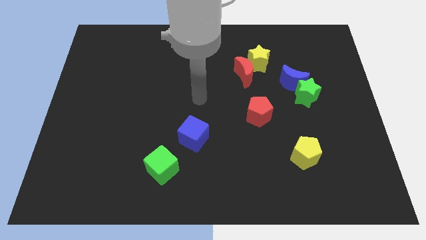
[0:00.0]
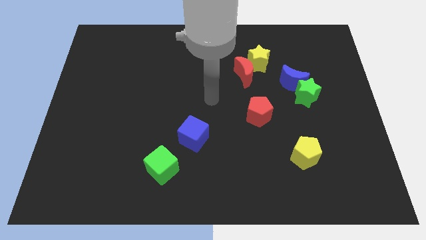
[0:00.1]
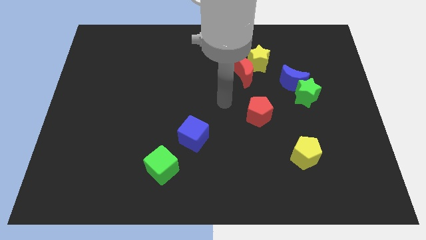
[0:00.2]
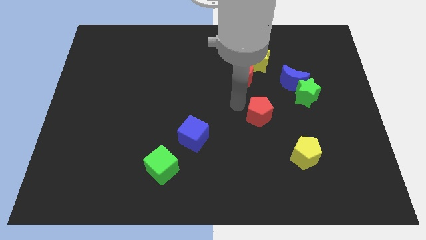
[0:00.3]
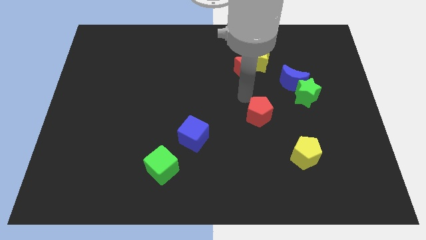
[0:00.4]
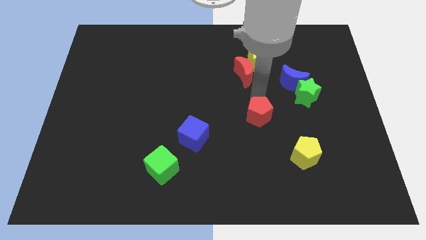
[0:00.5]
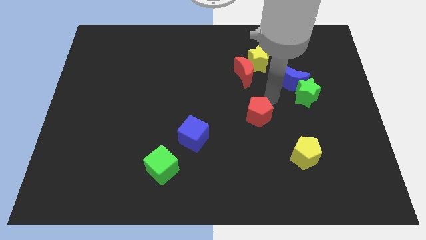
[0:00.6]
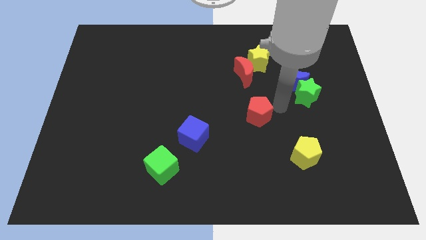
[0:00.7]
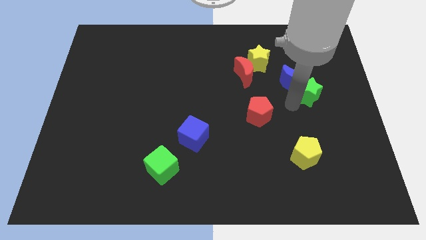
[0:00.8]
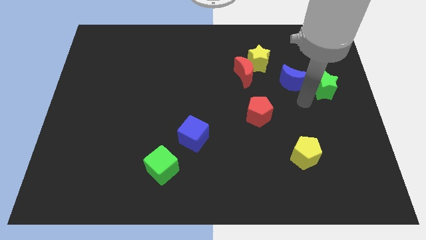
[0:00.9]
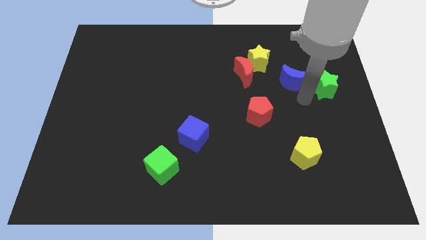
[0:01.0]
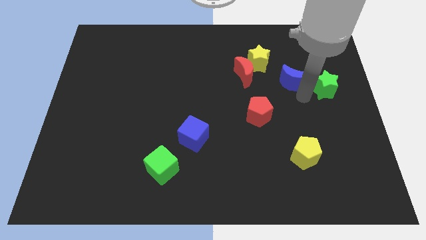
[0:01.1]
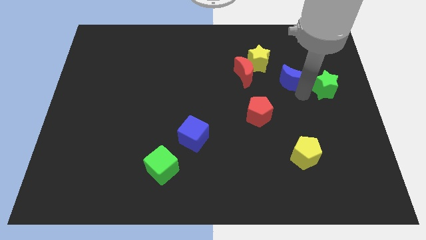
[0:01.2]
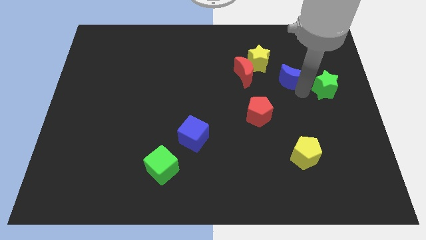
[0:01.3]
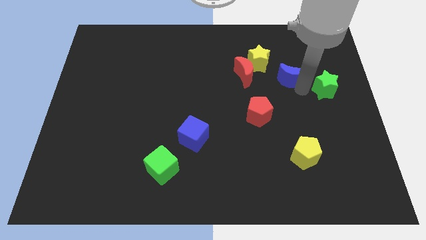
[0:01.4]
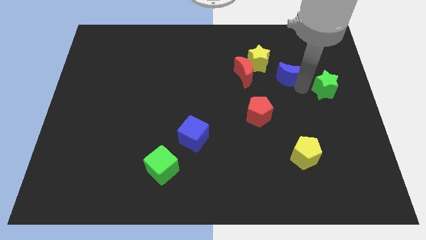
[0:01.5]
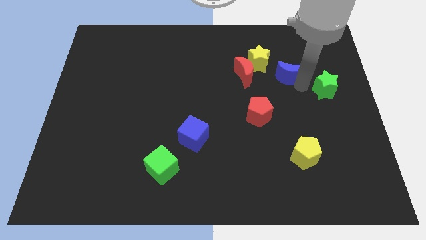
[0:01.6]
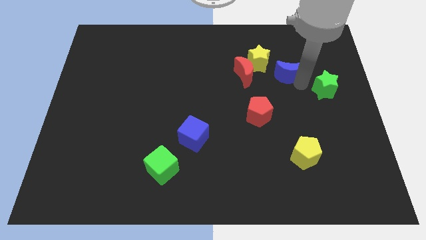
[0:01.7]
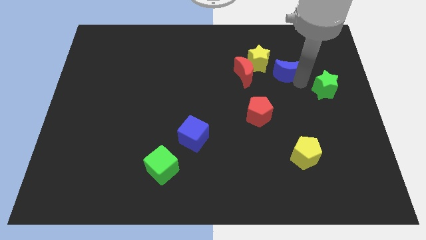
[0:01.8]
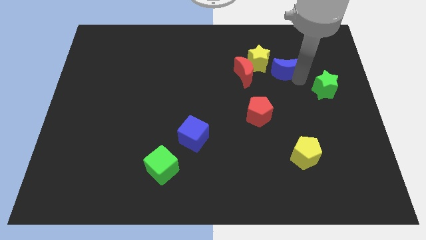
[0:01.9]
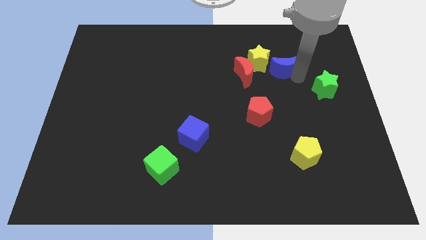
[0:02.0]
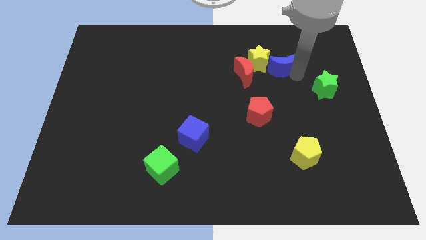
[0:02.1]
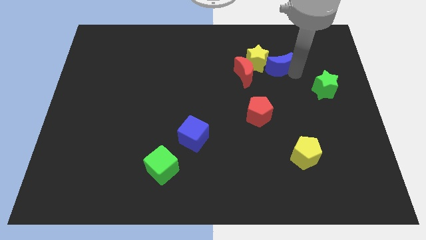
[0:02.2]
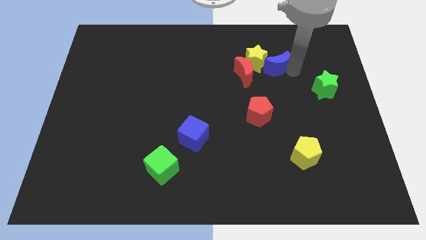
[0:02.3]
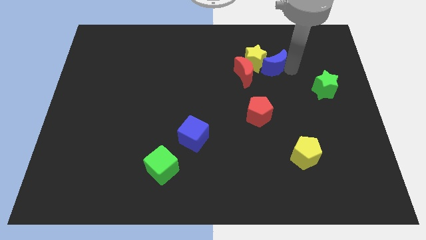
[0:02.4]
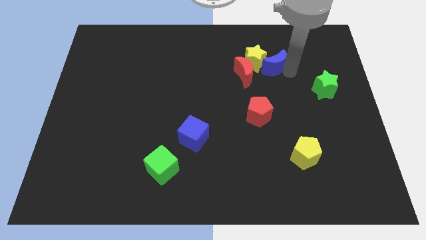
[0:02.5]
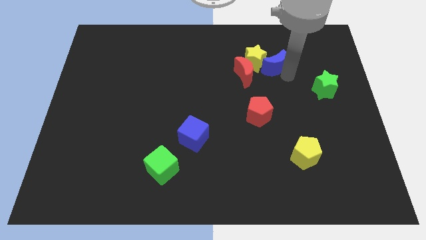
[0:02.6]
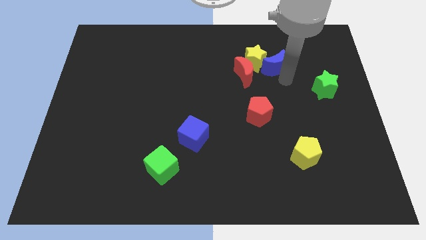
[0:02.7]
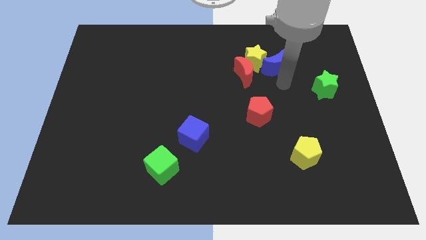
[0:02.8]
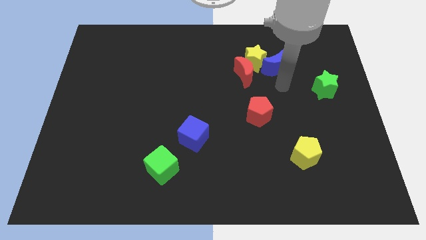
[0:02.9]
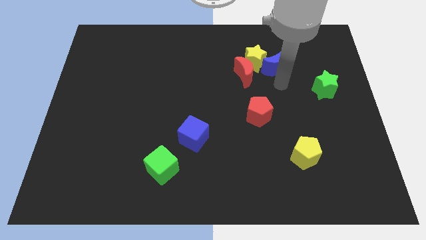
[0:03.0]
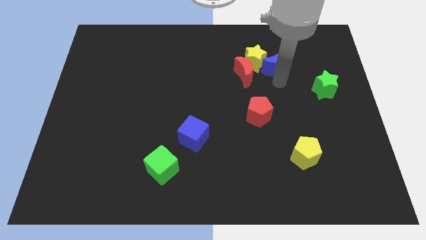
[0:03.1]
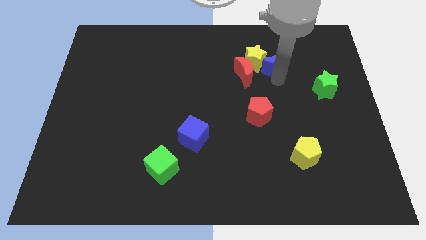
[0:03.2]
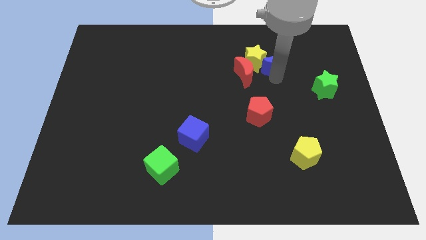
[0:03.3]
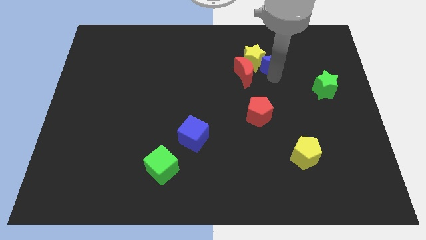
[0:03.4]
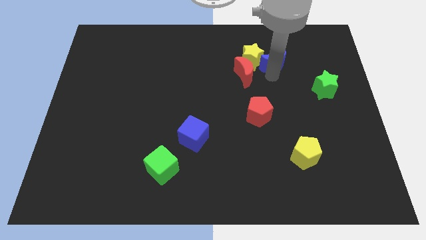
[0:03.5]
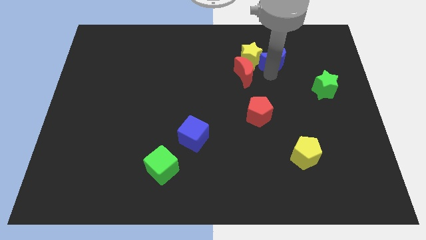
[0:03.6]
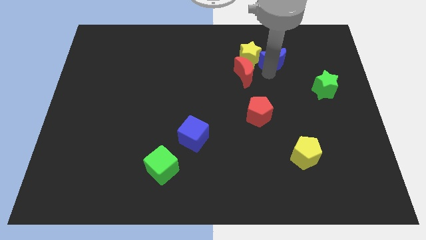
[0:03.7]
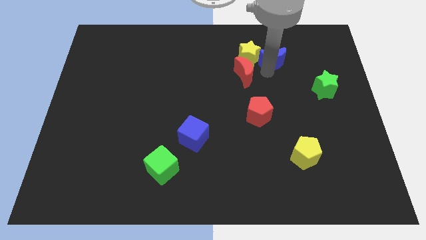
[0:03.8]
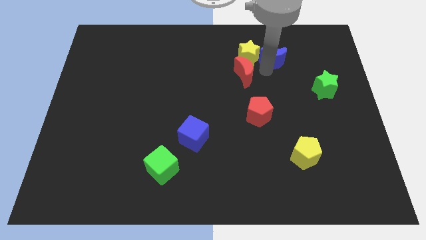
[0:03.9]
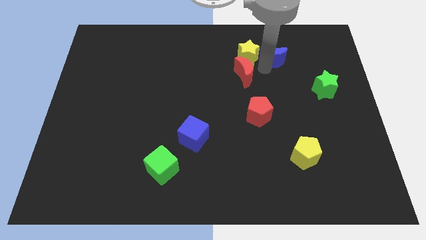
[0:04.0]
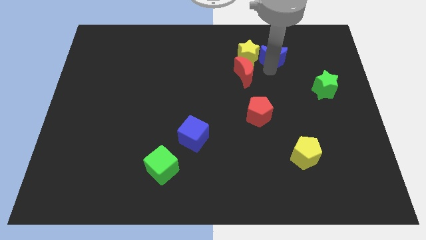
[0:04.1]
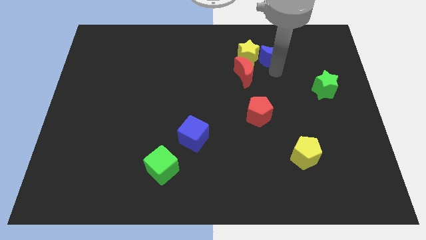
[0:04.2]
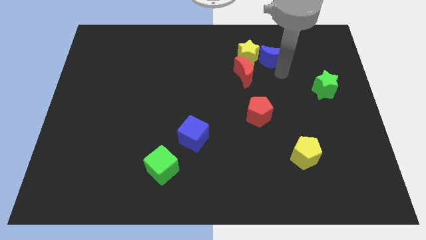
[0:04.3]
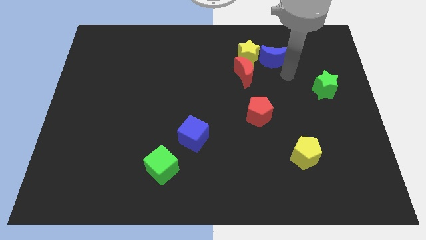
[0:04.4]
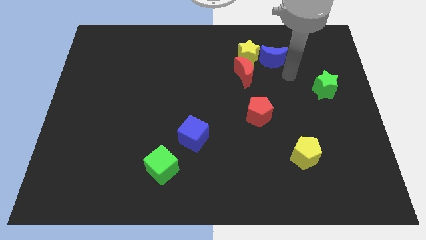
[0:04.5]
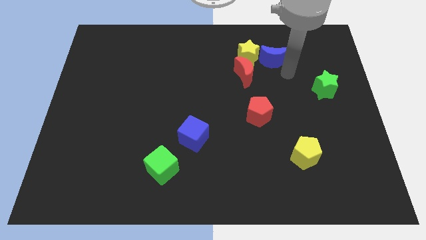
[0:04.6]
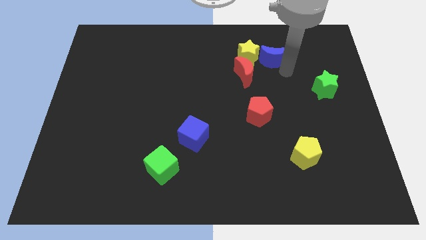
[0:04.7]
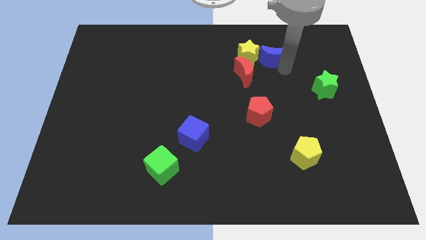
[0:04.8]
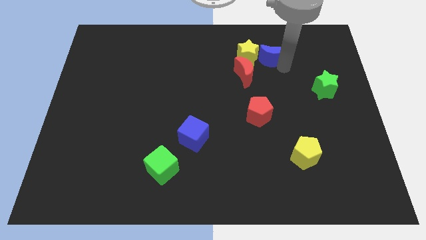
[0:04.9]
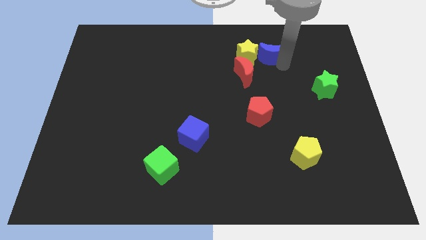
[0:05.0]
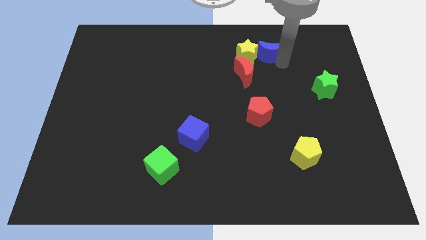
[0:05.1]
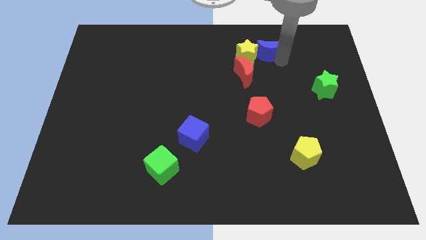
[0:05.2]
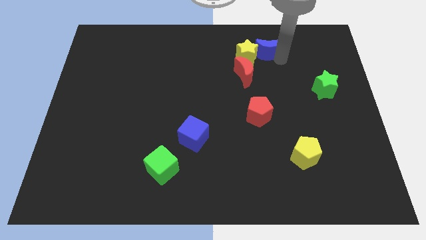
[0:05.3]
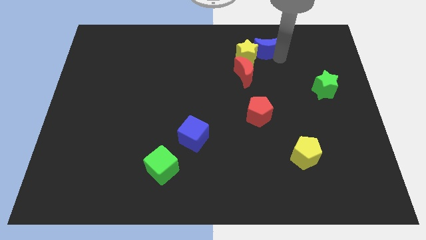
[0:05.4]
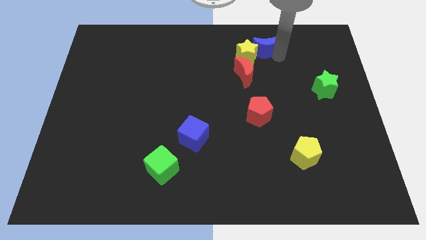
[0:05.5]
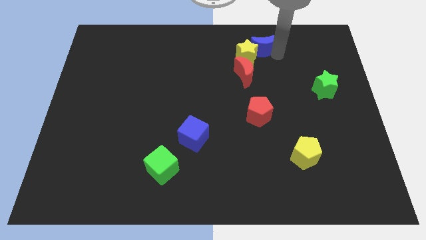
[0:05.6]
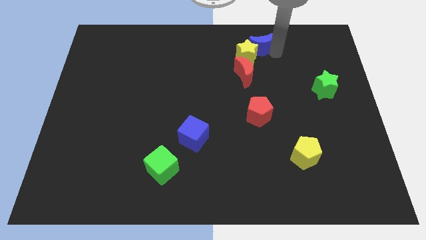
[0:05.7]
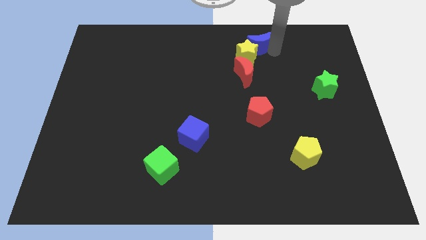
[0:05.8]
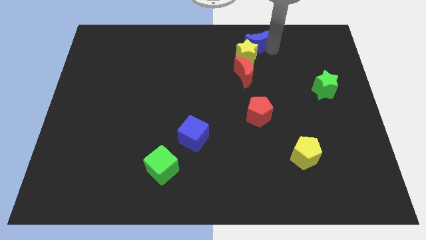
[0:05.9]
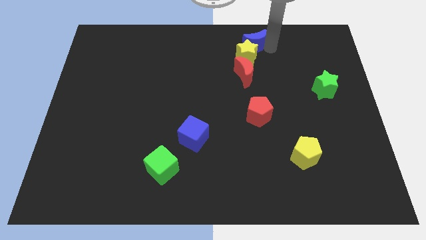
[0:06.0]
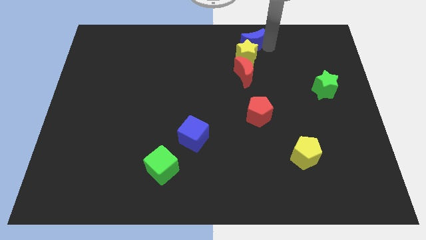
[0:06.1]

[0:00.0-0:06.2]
slide the blue moon to the towards your base
